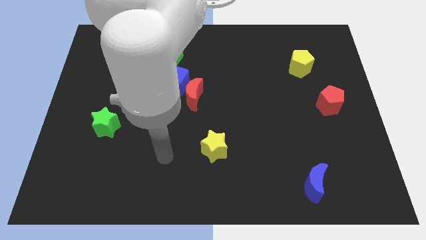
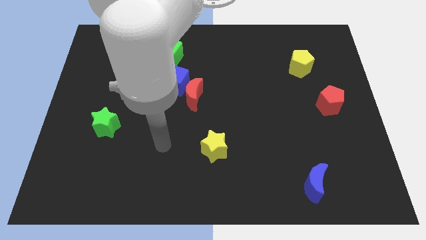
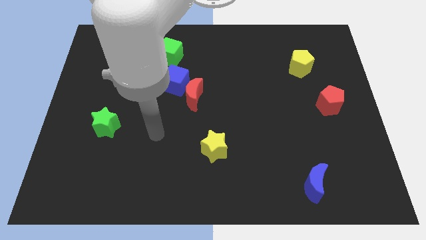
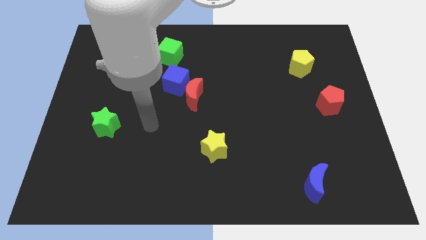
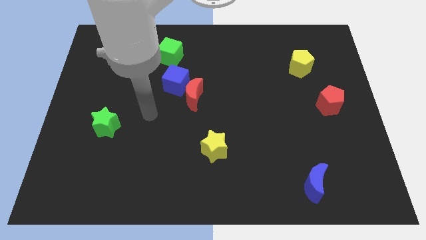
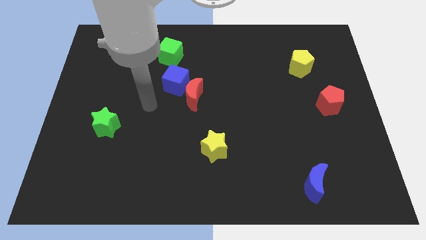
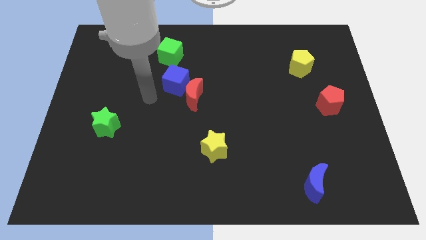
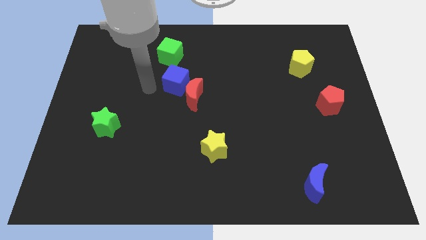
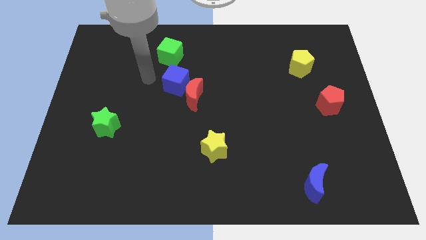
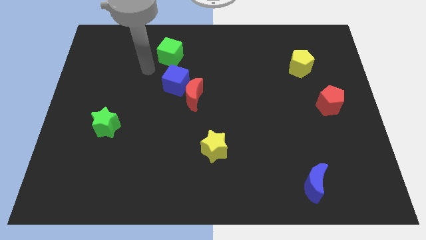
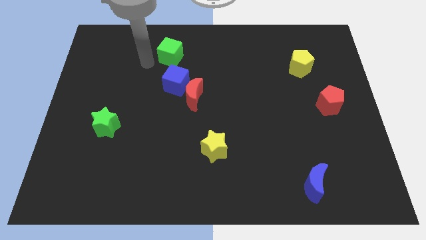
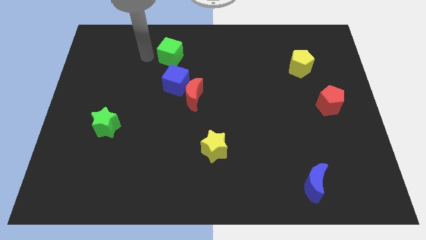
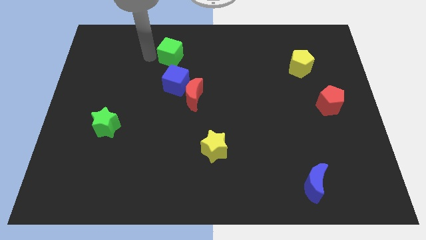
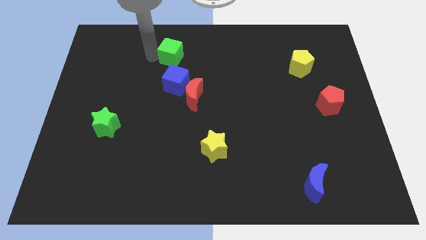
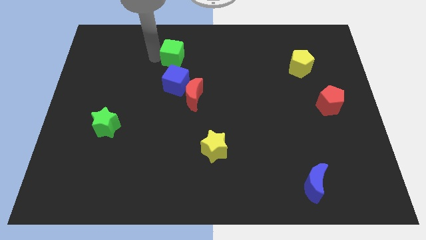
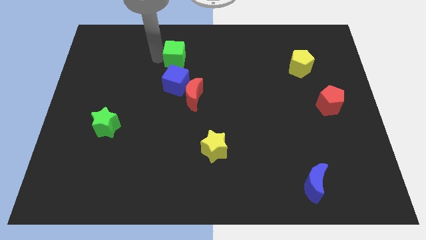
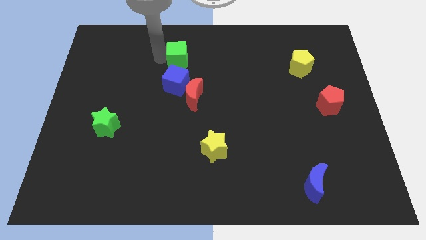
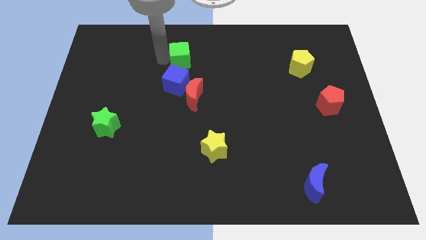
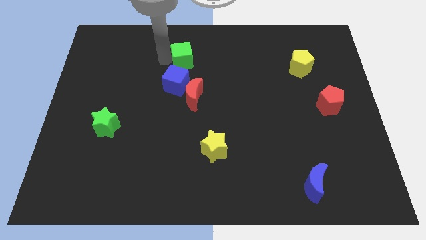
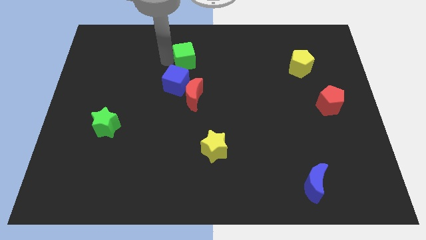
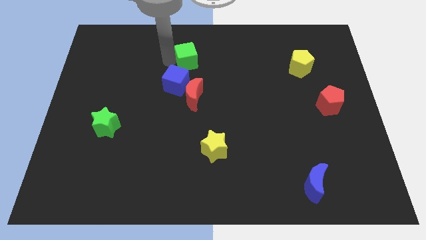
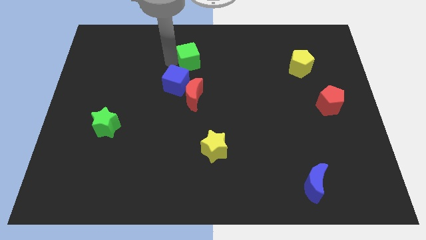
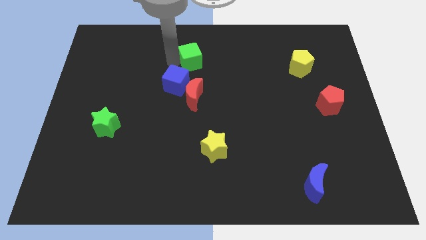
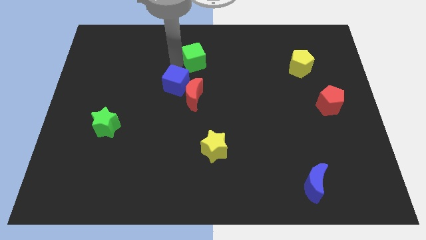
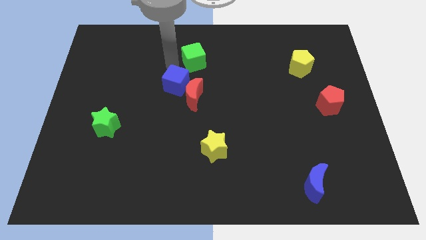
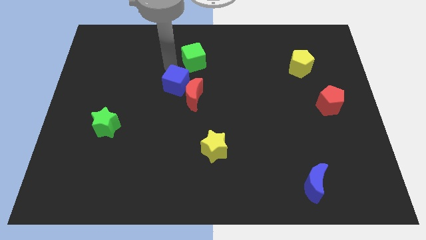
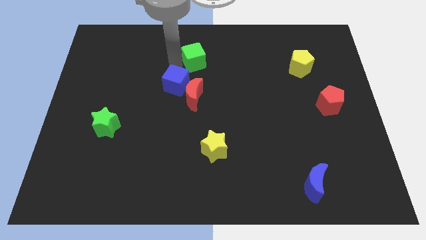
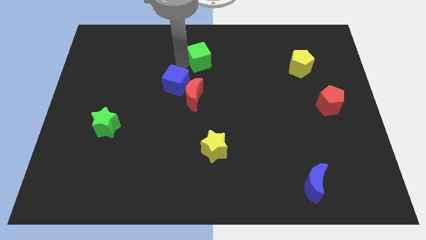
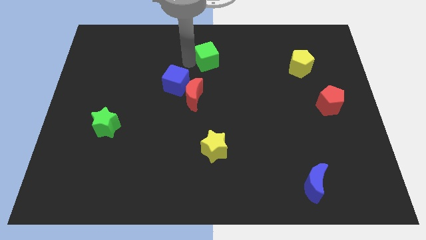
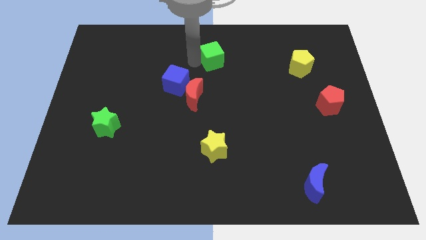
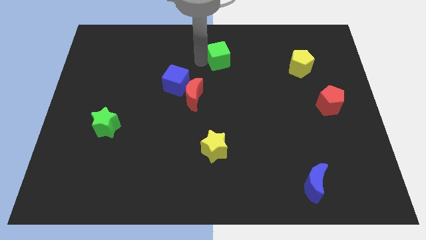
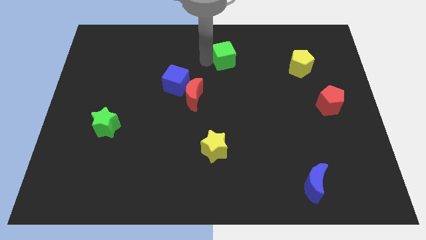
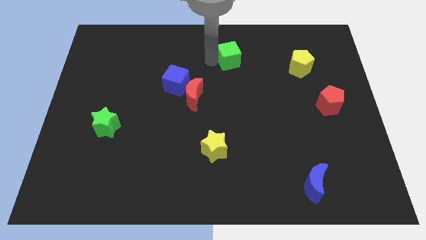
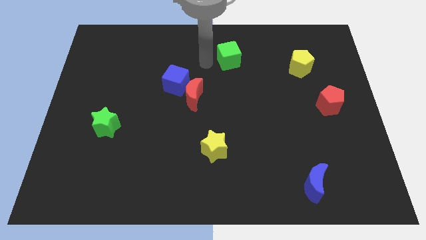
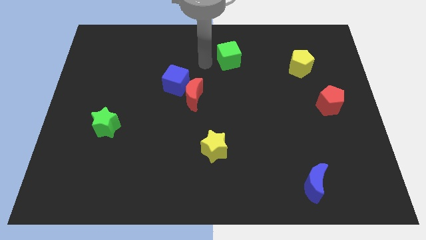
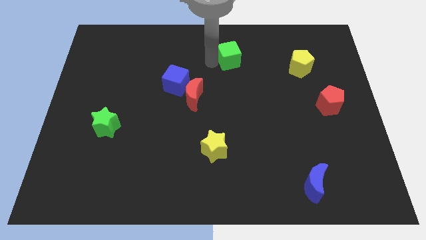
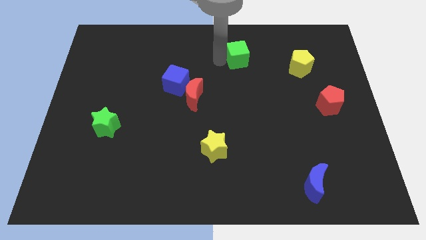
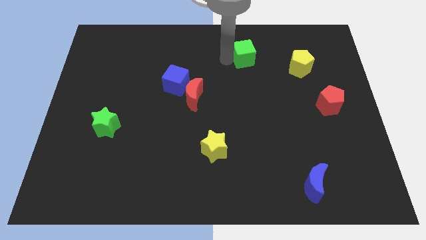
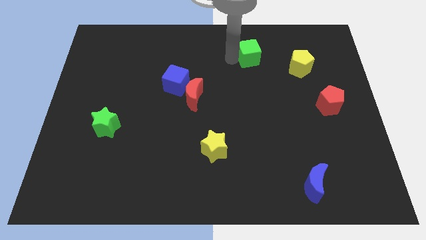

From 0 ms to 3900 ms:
slide the green cube right

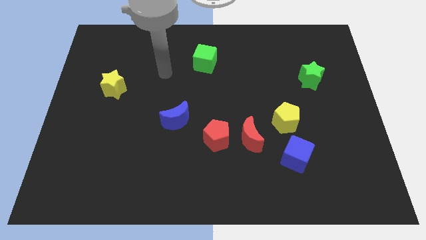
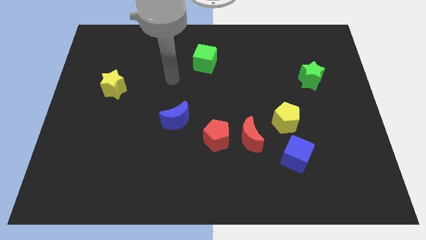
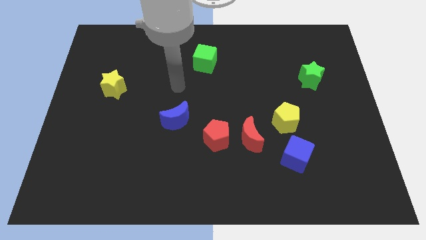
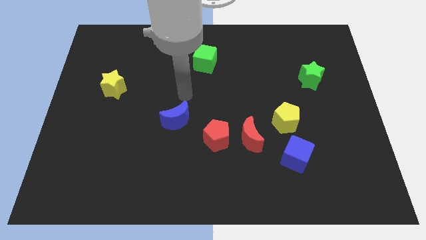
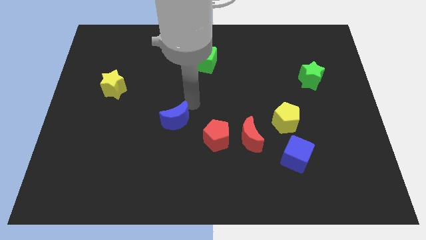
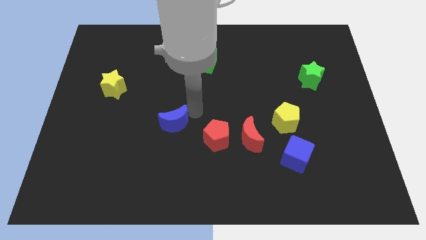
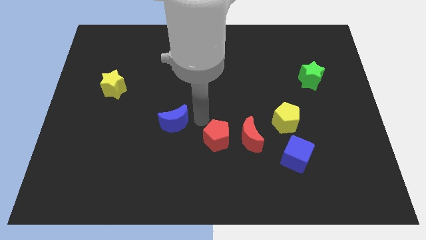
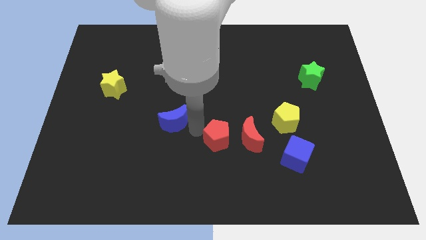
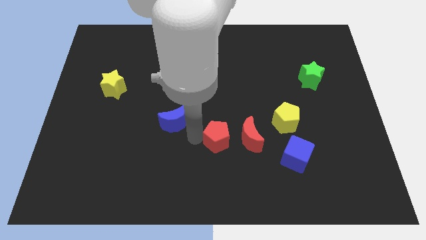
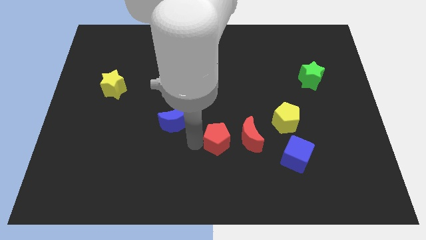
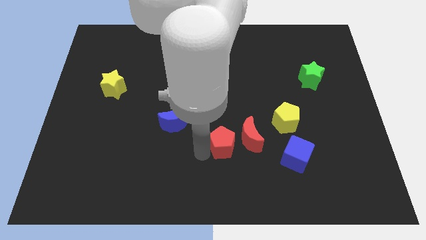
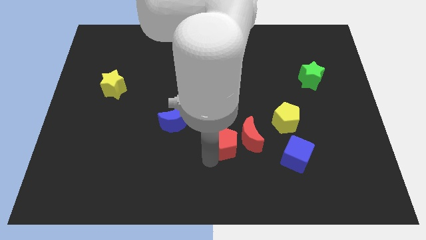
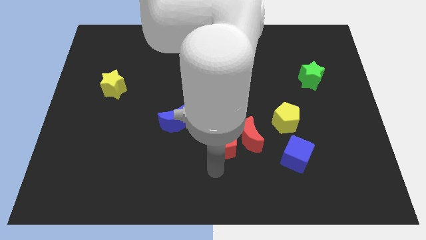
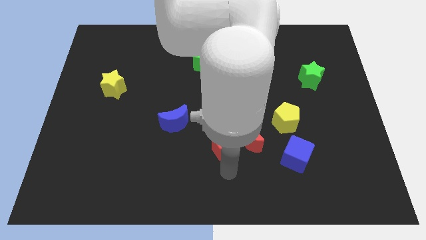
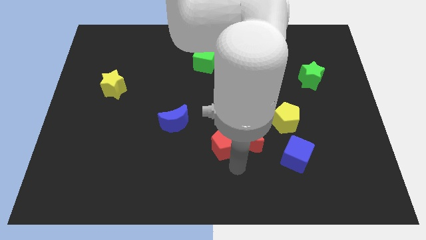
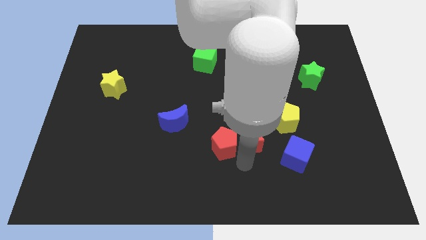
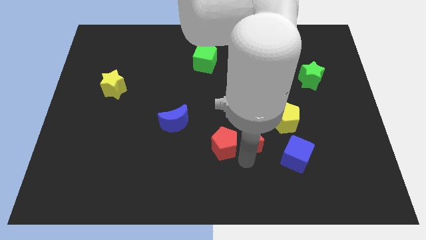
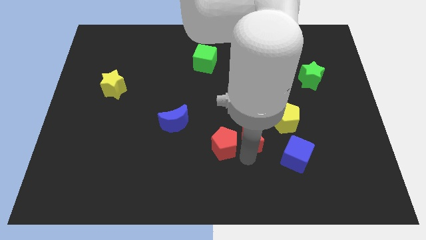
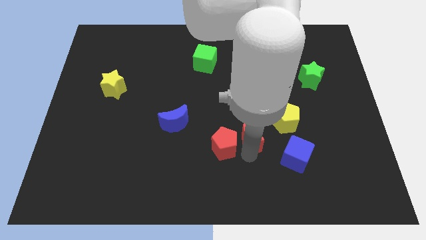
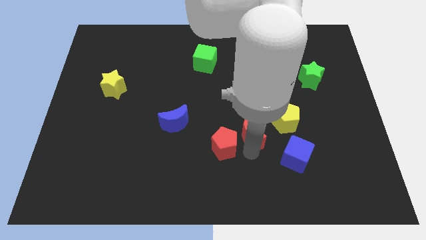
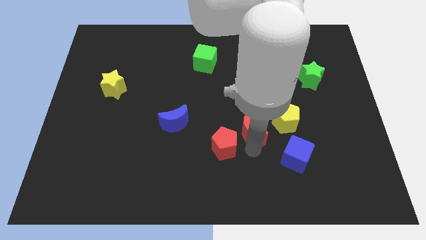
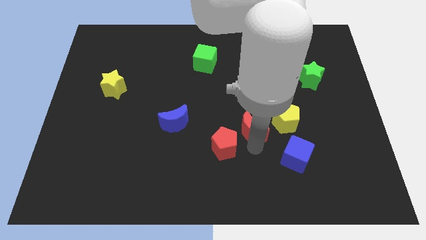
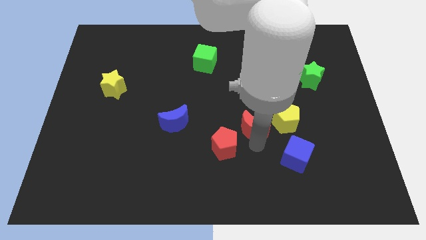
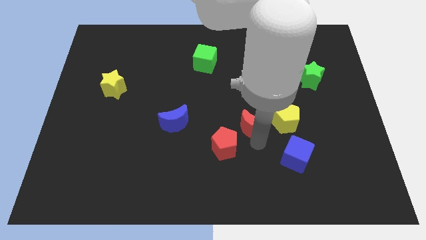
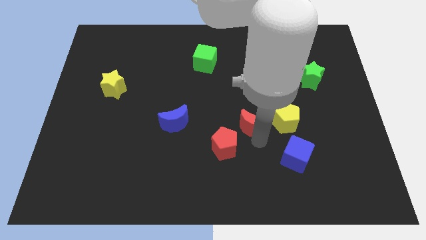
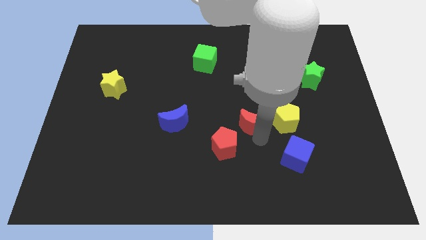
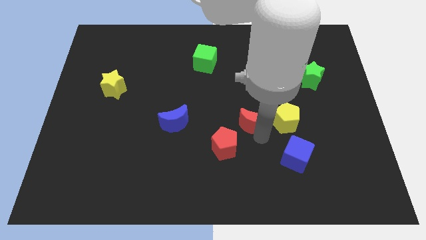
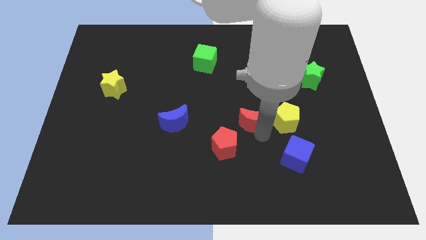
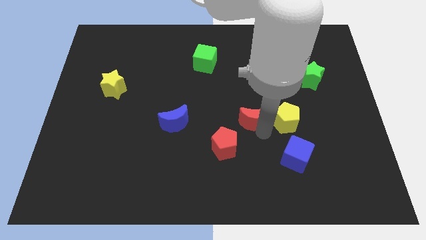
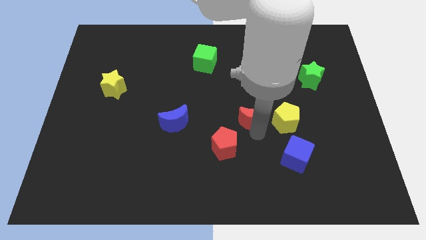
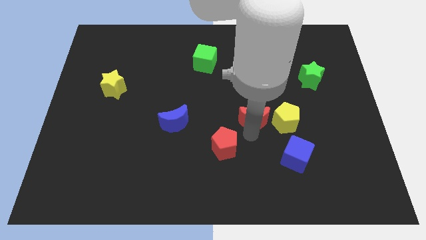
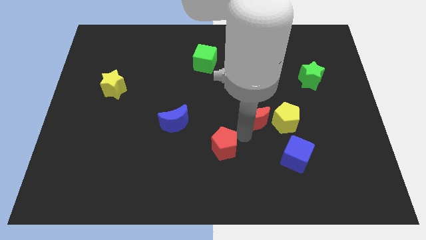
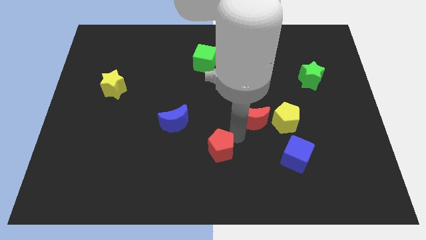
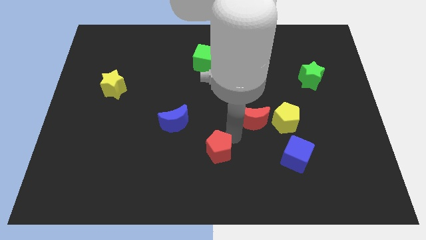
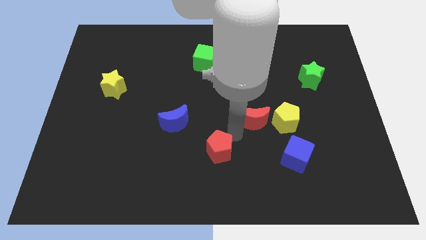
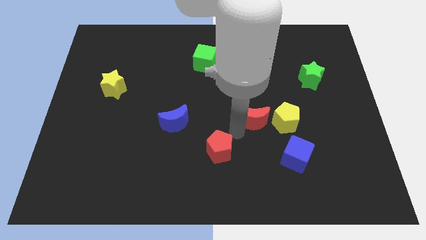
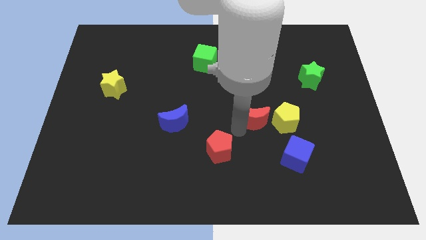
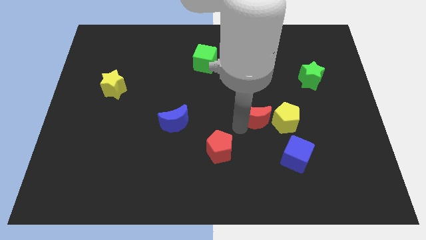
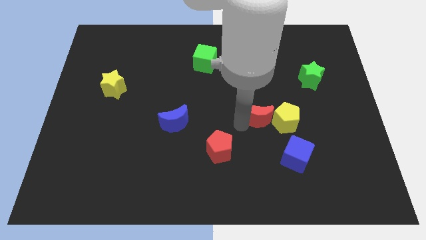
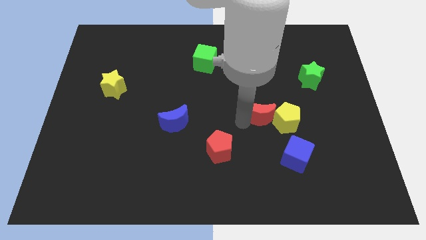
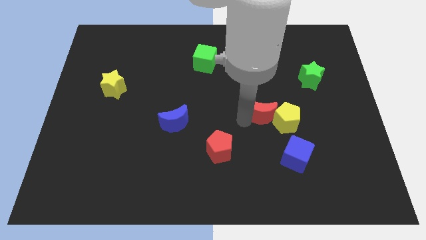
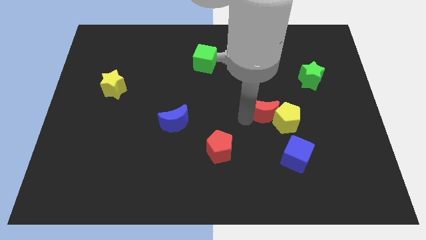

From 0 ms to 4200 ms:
slide the red moon upwards and right somewhat
